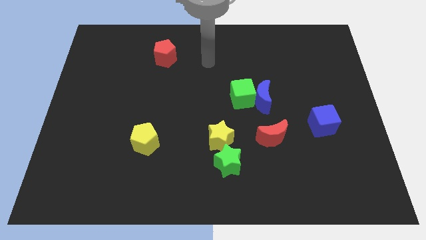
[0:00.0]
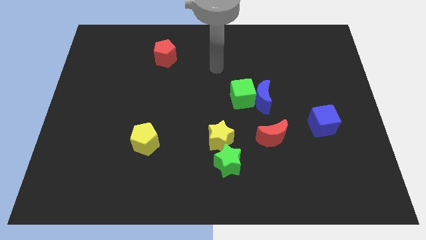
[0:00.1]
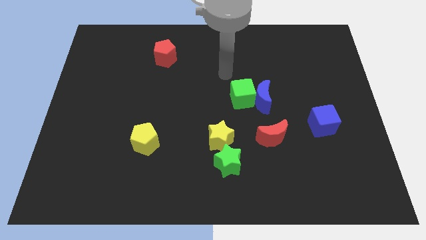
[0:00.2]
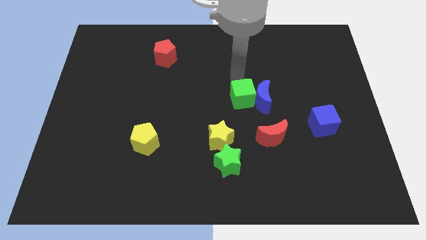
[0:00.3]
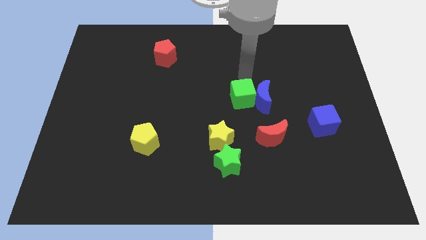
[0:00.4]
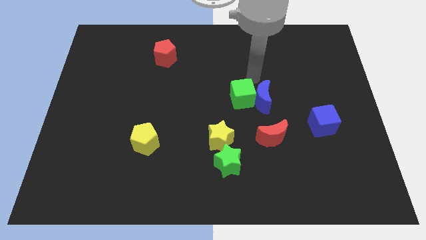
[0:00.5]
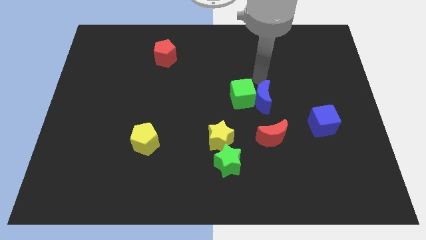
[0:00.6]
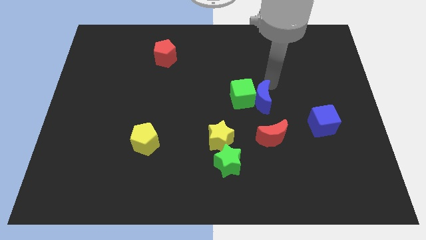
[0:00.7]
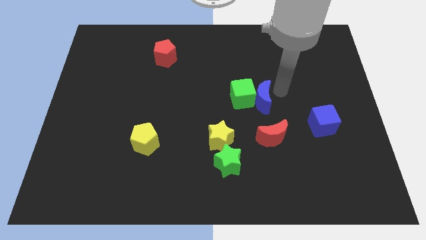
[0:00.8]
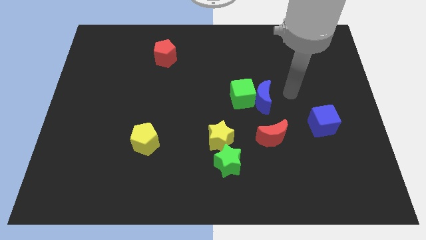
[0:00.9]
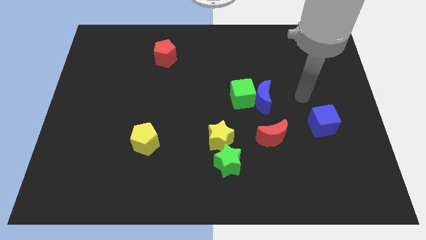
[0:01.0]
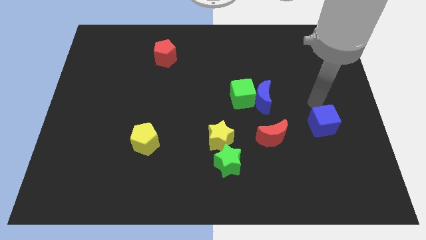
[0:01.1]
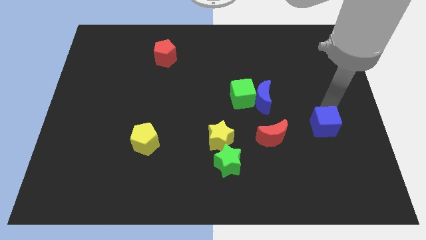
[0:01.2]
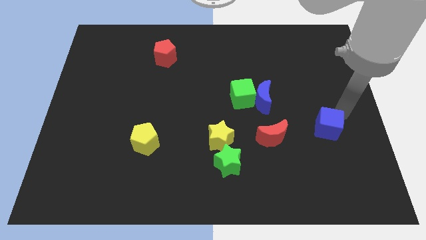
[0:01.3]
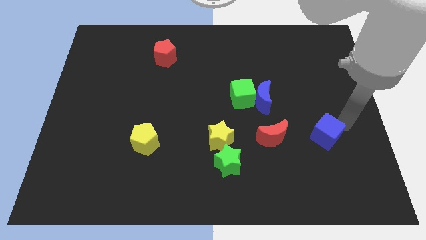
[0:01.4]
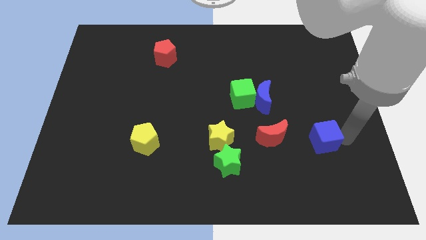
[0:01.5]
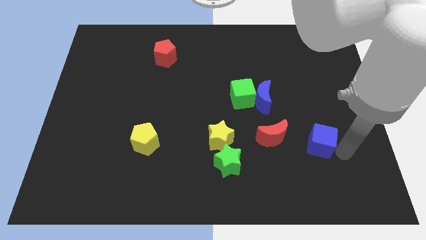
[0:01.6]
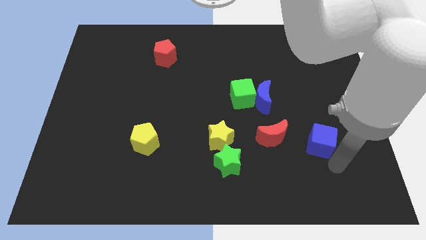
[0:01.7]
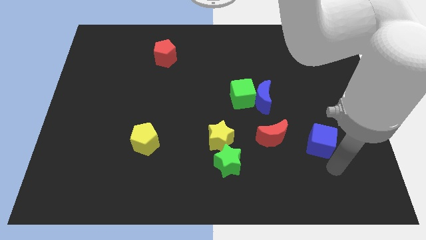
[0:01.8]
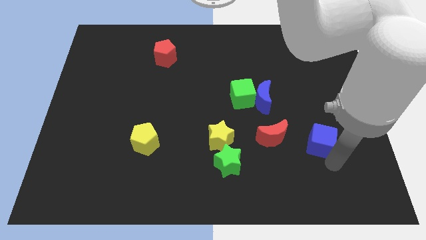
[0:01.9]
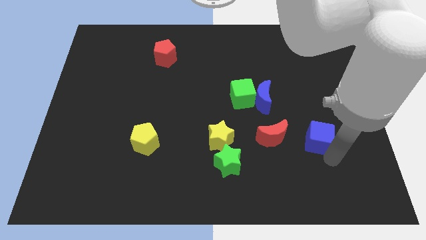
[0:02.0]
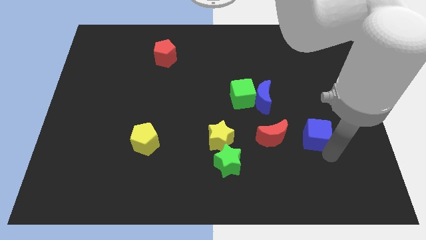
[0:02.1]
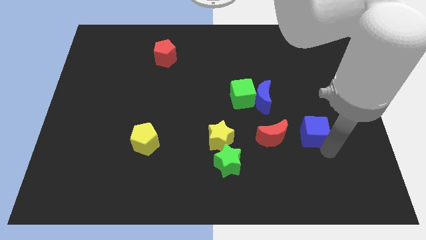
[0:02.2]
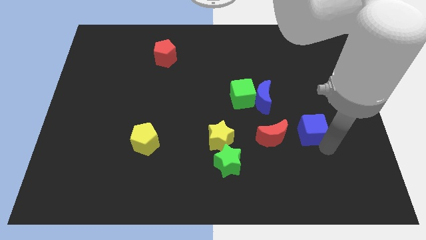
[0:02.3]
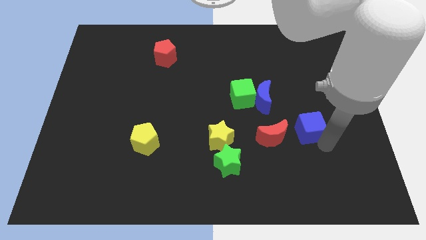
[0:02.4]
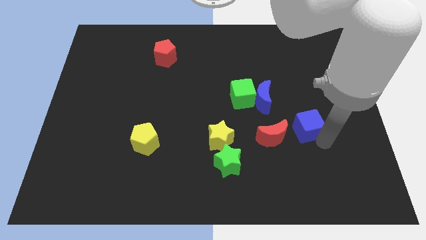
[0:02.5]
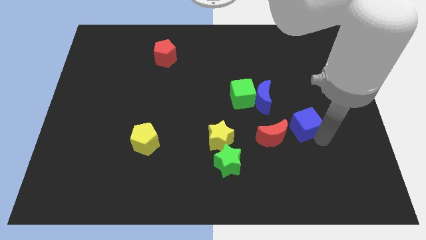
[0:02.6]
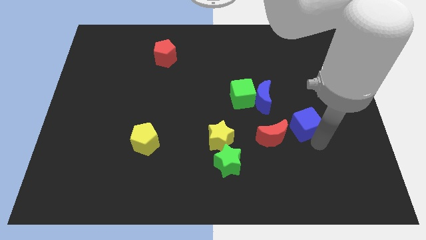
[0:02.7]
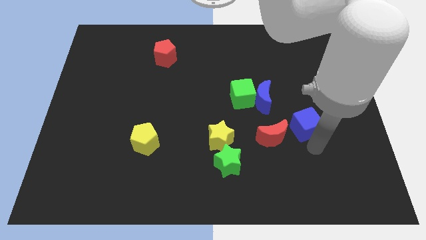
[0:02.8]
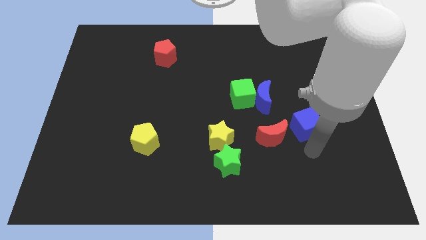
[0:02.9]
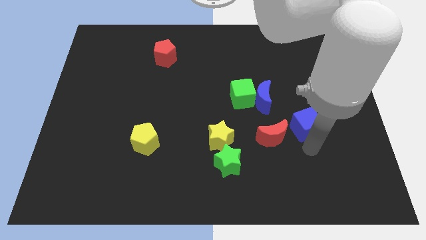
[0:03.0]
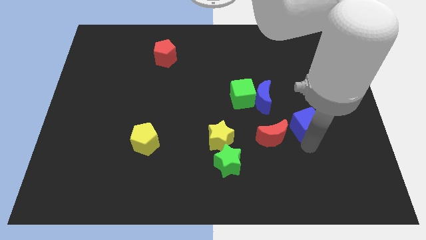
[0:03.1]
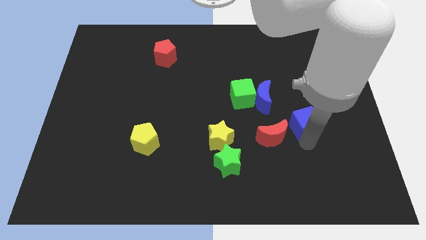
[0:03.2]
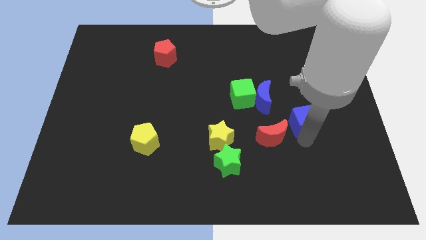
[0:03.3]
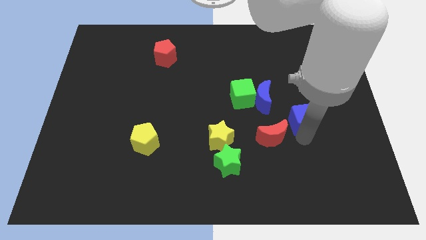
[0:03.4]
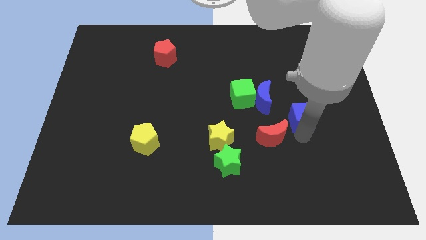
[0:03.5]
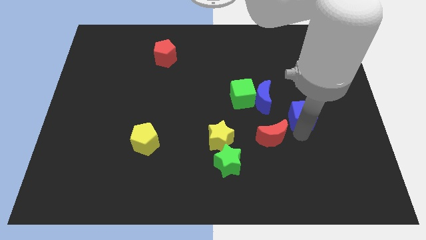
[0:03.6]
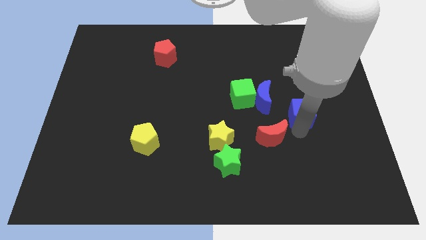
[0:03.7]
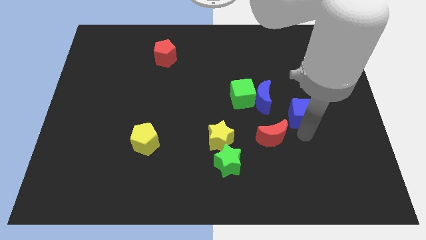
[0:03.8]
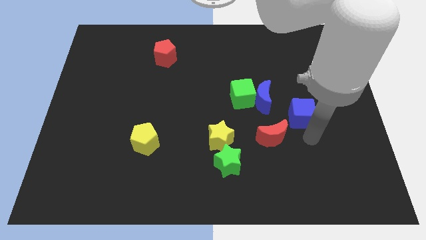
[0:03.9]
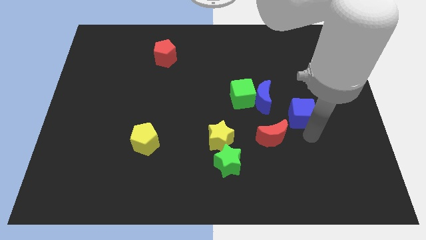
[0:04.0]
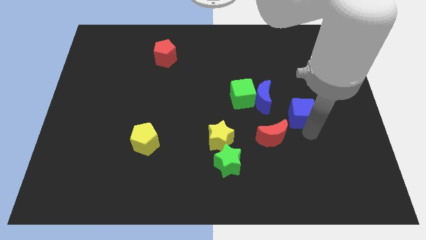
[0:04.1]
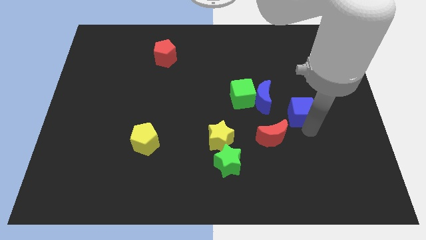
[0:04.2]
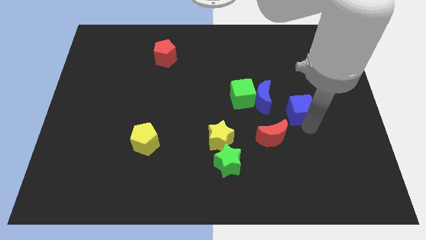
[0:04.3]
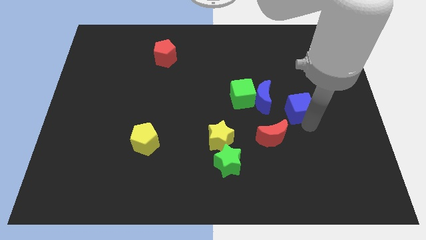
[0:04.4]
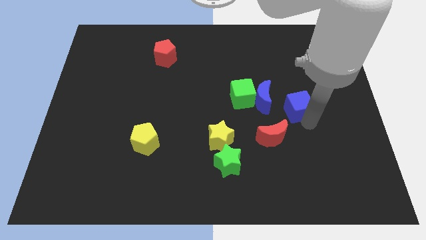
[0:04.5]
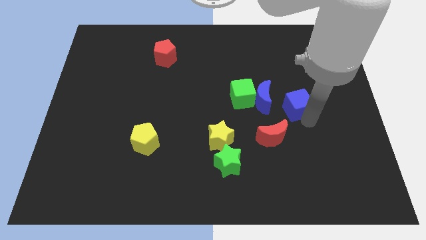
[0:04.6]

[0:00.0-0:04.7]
move the blue cube a little bit upwards and to the left

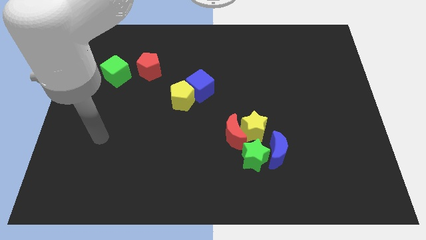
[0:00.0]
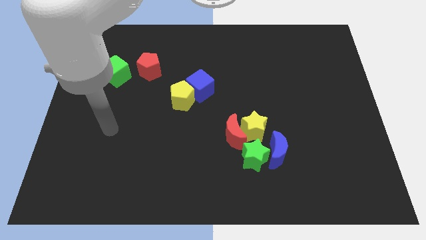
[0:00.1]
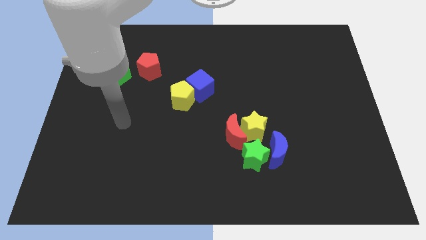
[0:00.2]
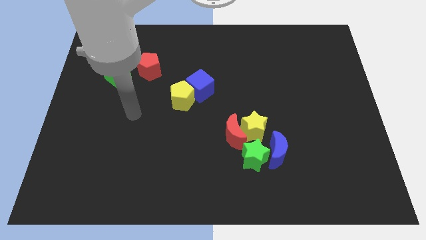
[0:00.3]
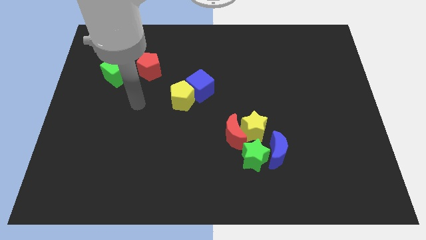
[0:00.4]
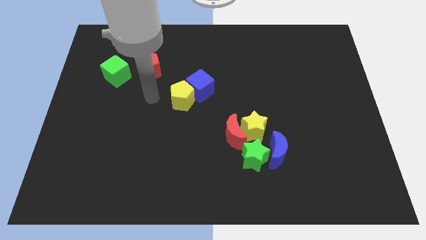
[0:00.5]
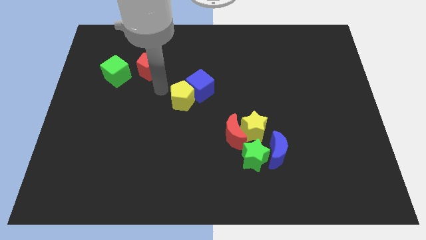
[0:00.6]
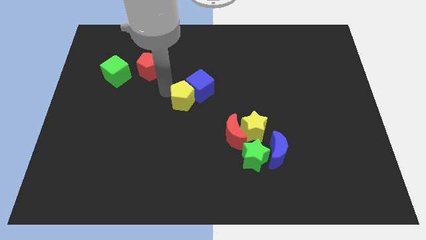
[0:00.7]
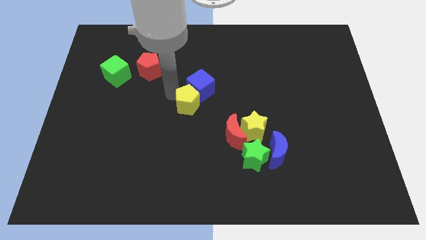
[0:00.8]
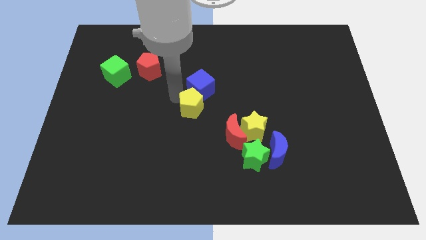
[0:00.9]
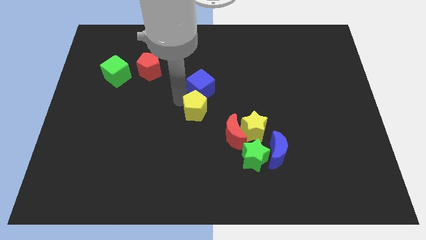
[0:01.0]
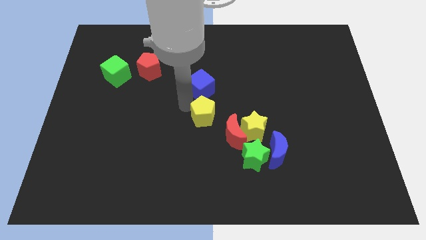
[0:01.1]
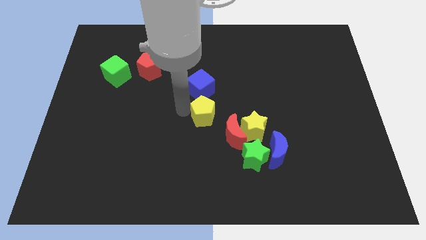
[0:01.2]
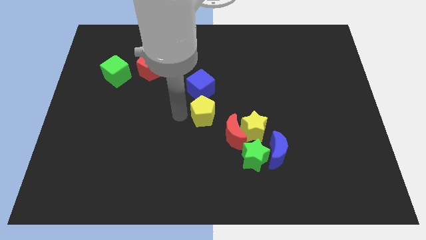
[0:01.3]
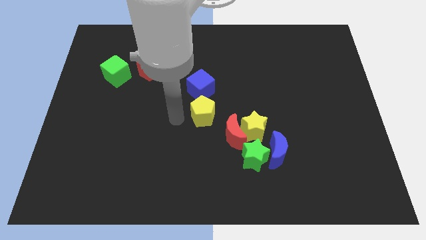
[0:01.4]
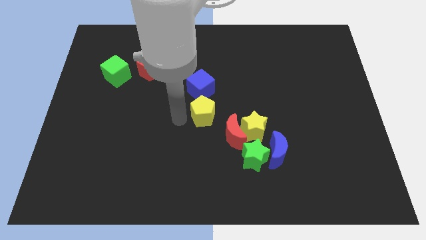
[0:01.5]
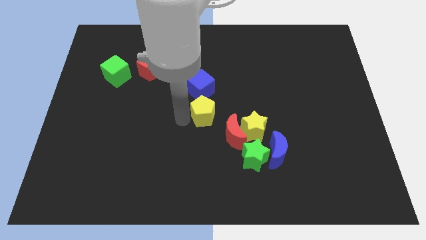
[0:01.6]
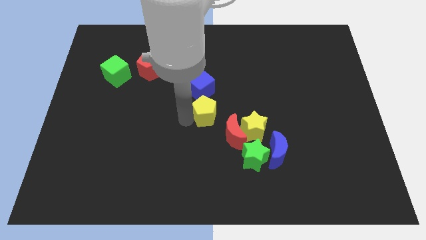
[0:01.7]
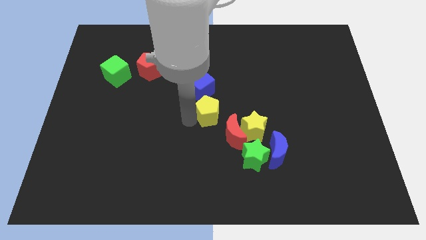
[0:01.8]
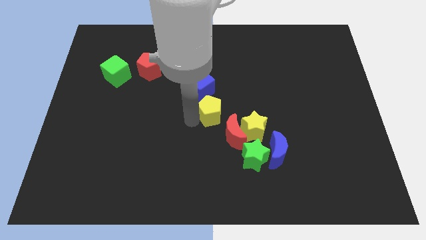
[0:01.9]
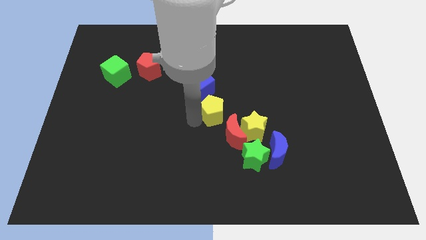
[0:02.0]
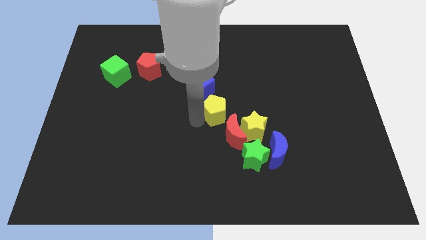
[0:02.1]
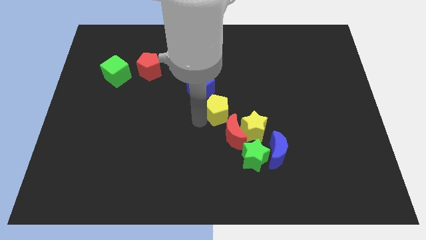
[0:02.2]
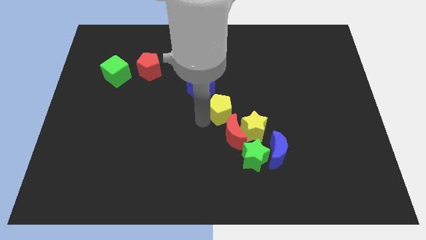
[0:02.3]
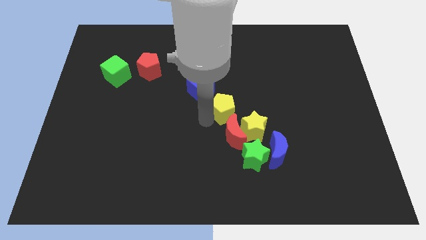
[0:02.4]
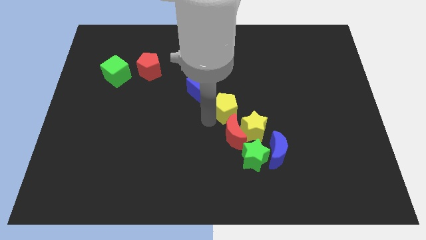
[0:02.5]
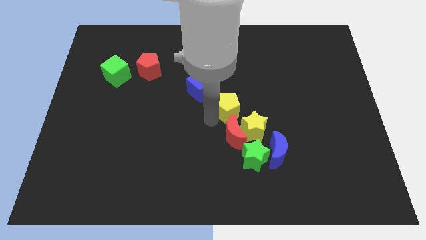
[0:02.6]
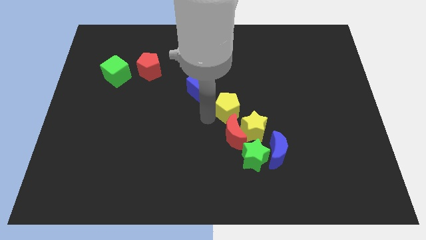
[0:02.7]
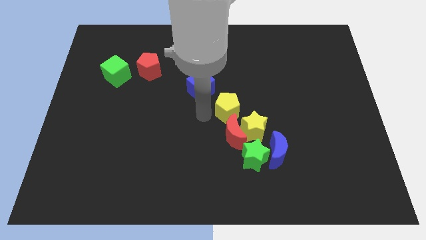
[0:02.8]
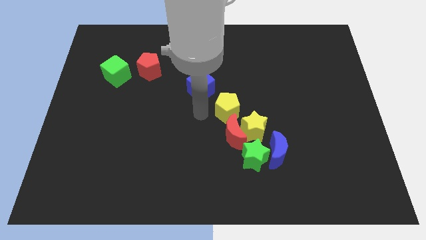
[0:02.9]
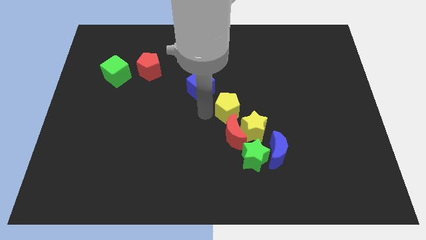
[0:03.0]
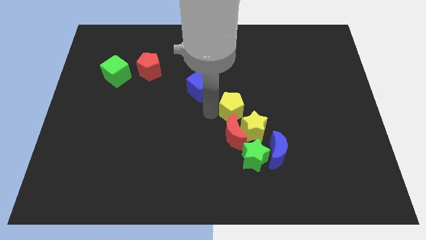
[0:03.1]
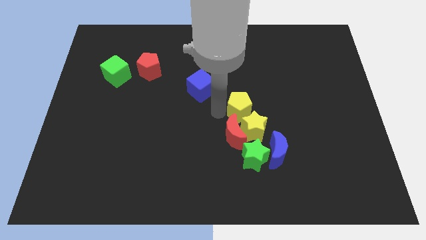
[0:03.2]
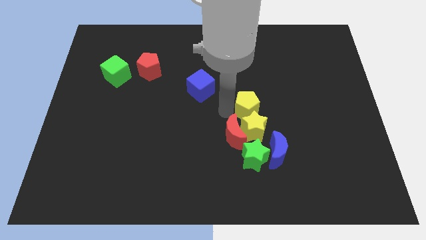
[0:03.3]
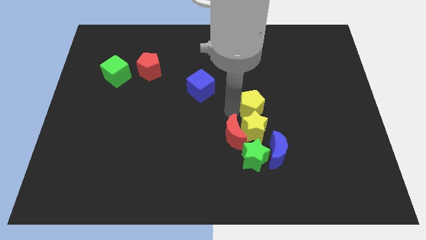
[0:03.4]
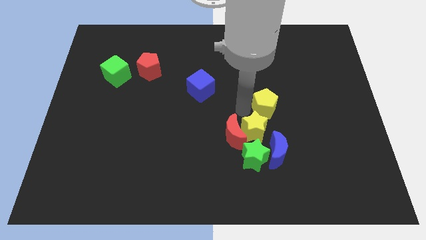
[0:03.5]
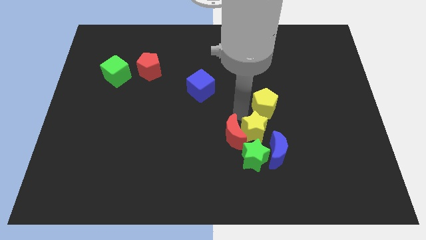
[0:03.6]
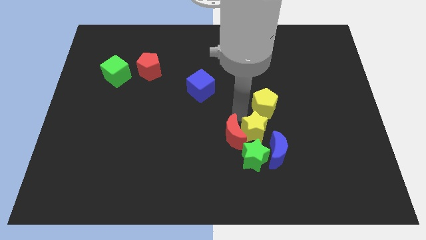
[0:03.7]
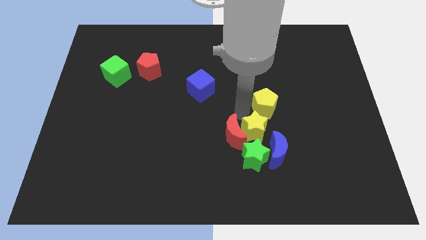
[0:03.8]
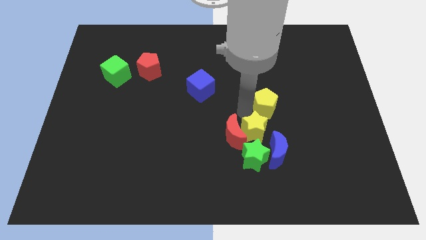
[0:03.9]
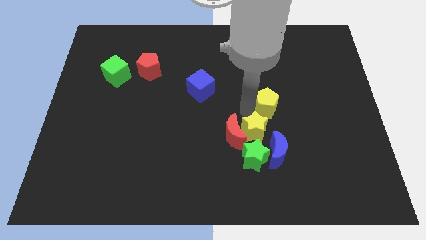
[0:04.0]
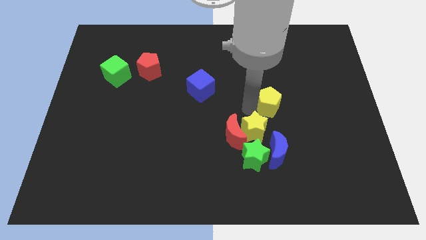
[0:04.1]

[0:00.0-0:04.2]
move the yellow pentagon to the right
